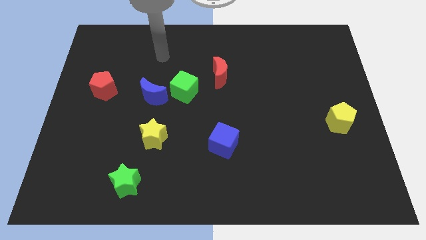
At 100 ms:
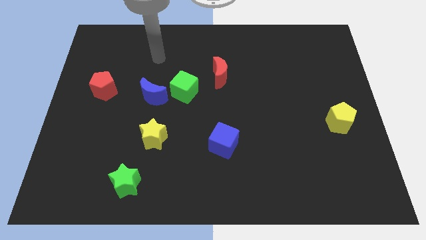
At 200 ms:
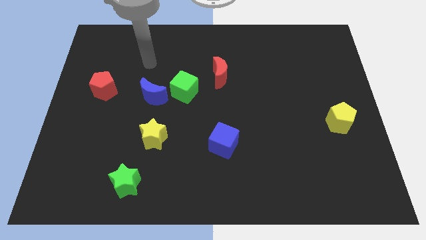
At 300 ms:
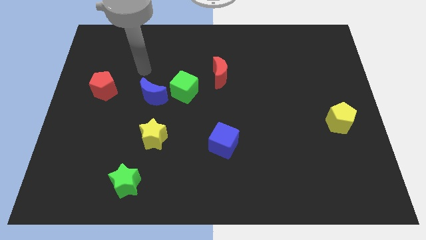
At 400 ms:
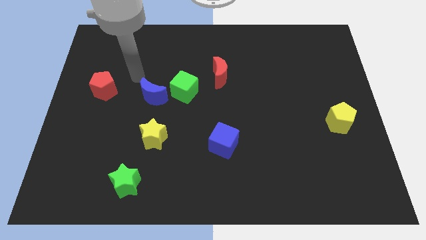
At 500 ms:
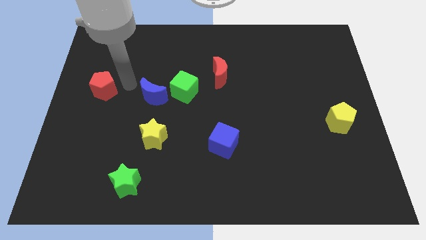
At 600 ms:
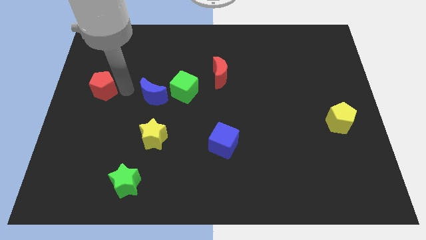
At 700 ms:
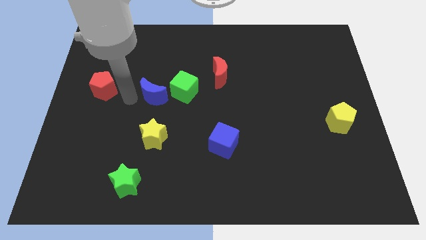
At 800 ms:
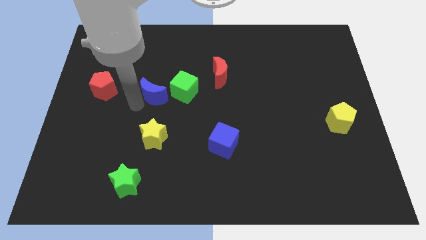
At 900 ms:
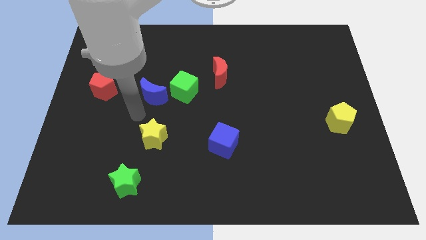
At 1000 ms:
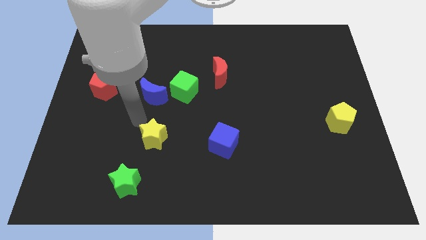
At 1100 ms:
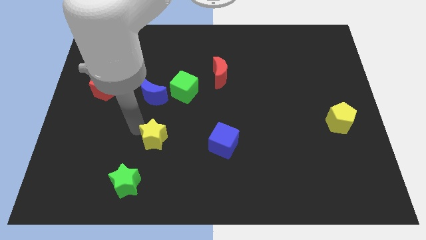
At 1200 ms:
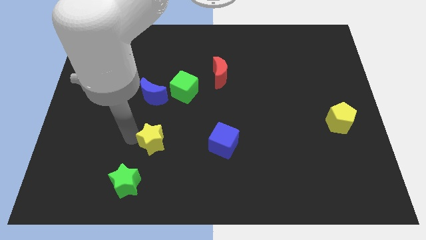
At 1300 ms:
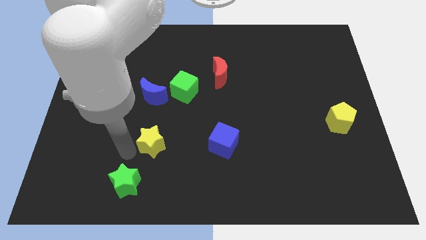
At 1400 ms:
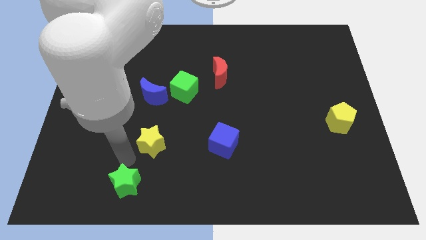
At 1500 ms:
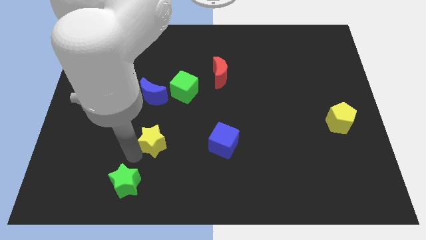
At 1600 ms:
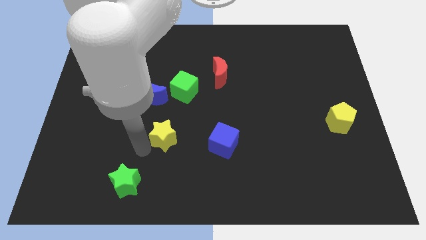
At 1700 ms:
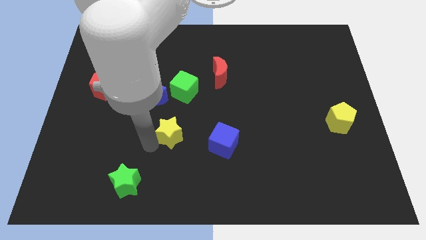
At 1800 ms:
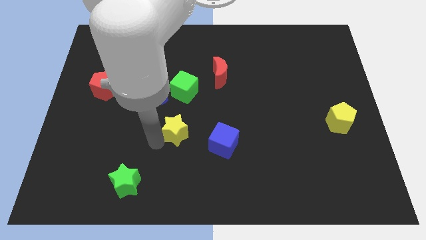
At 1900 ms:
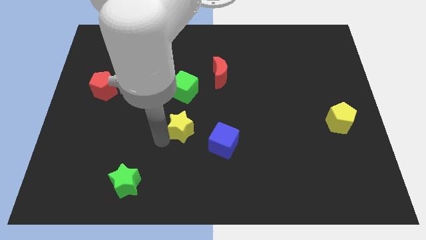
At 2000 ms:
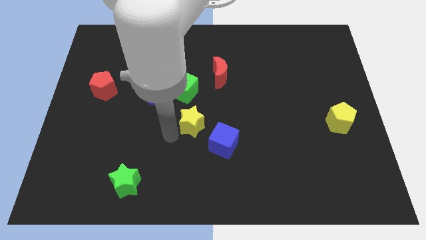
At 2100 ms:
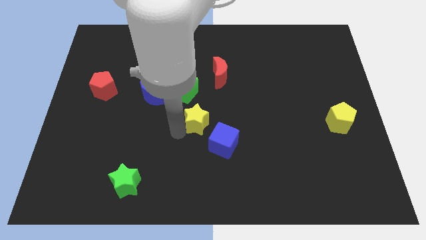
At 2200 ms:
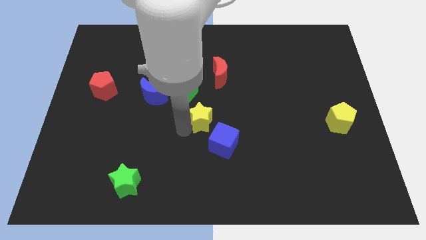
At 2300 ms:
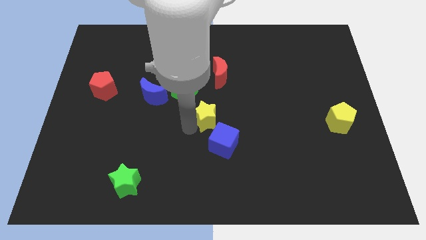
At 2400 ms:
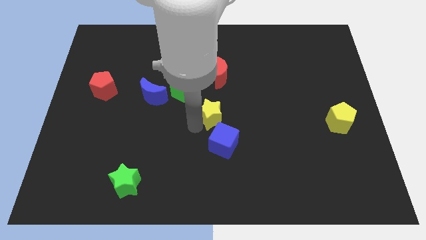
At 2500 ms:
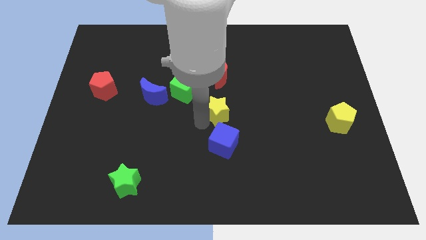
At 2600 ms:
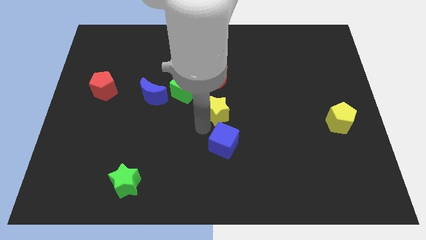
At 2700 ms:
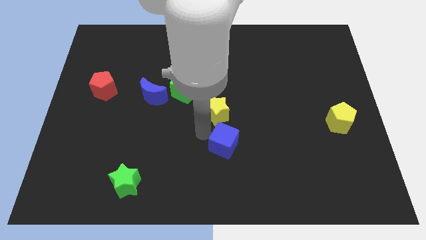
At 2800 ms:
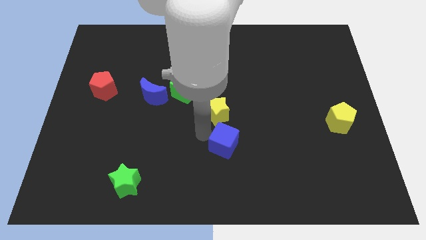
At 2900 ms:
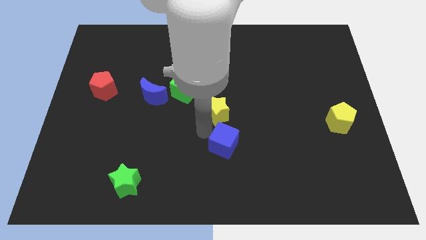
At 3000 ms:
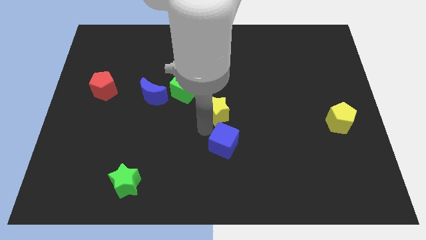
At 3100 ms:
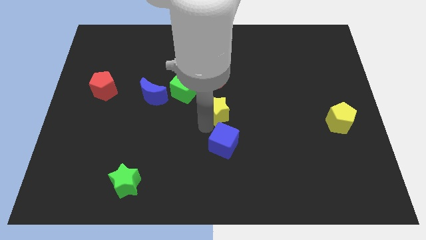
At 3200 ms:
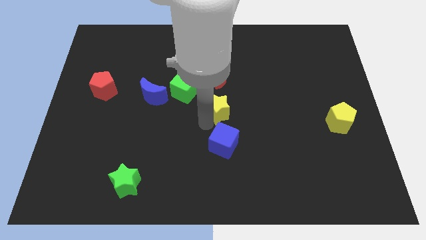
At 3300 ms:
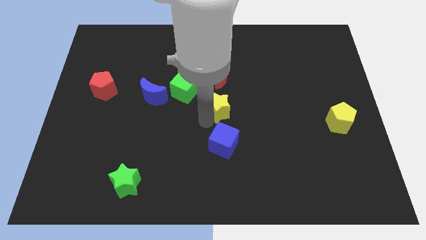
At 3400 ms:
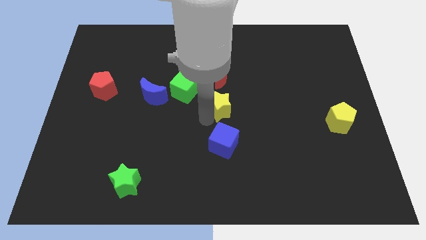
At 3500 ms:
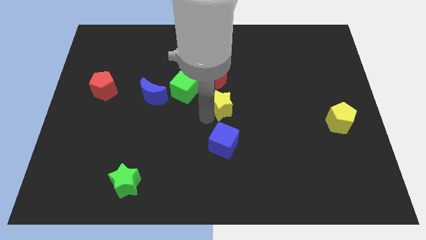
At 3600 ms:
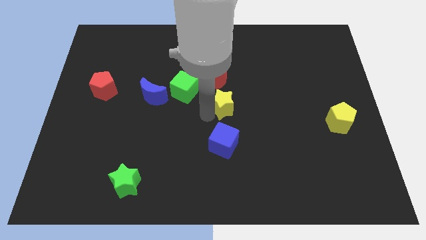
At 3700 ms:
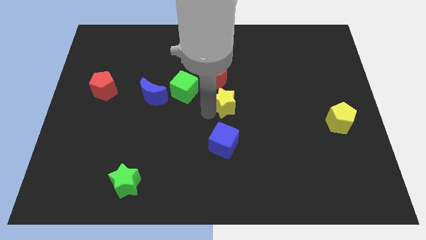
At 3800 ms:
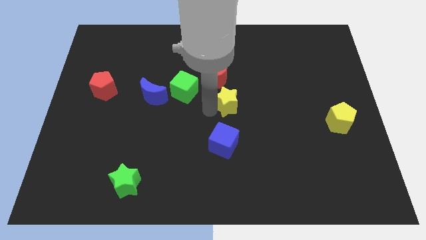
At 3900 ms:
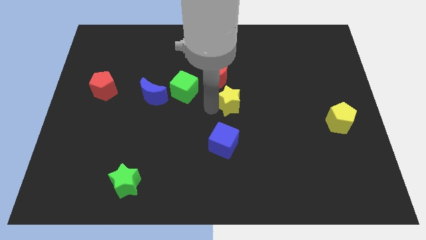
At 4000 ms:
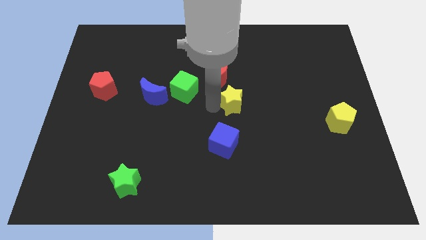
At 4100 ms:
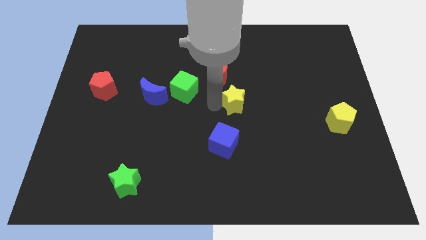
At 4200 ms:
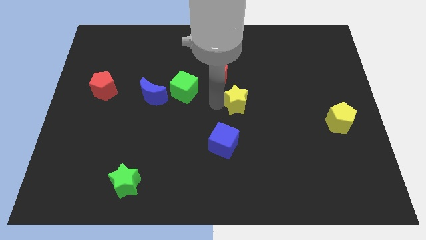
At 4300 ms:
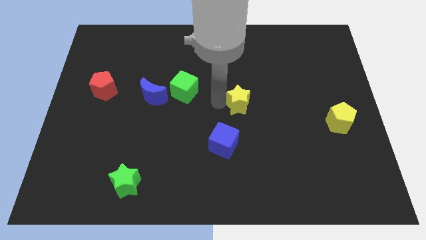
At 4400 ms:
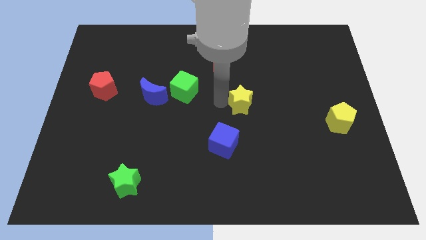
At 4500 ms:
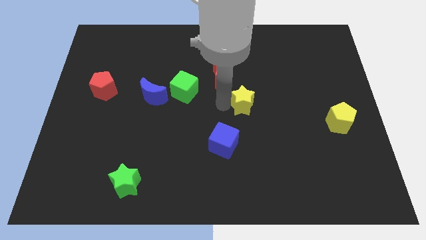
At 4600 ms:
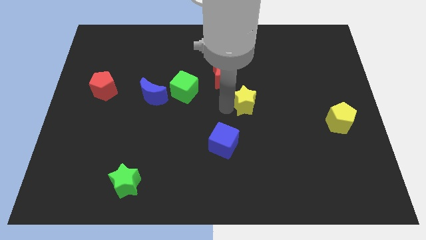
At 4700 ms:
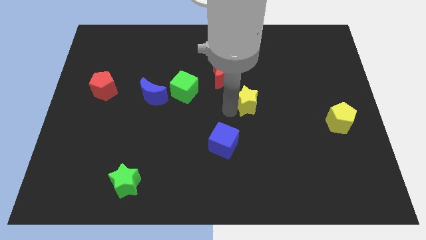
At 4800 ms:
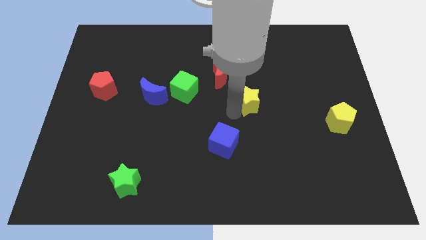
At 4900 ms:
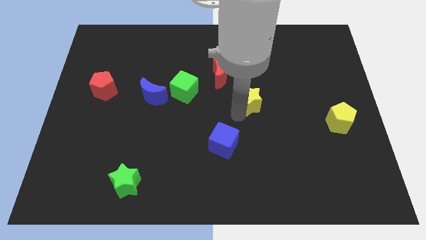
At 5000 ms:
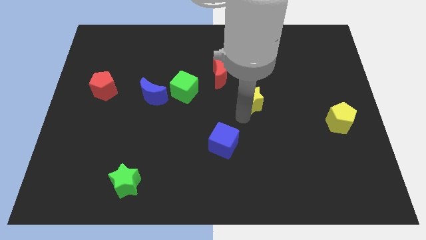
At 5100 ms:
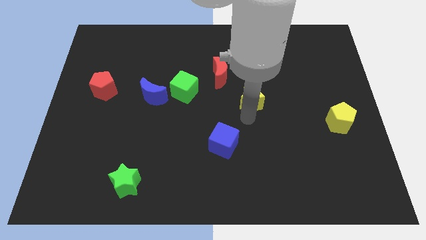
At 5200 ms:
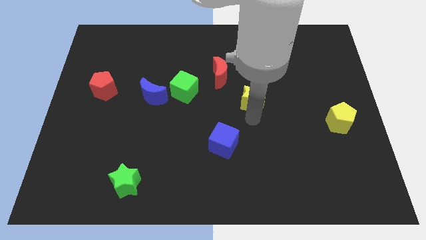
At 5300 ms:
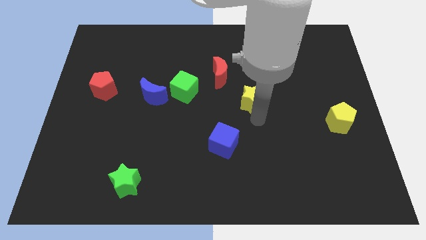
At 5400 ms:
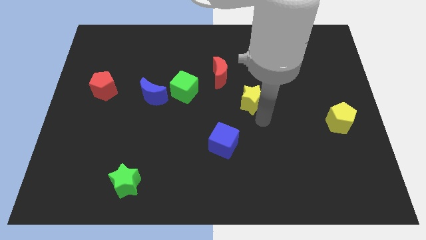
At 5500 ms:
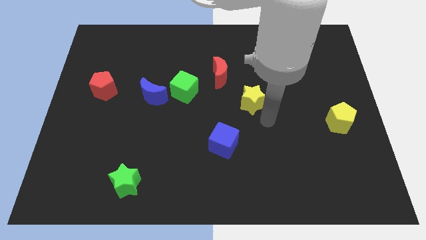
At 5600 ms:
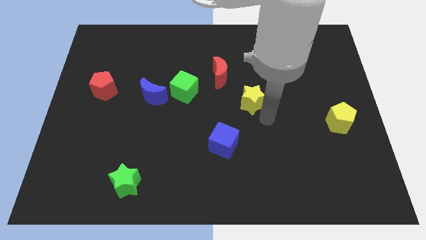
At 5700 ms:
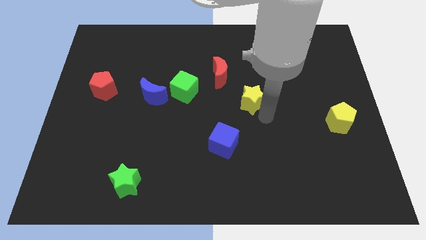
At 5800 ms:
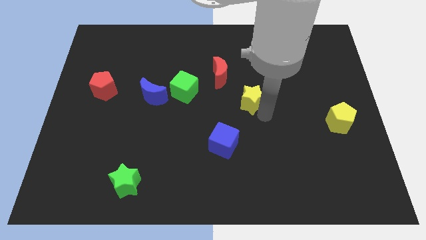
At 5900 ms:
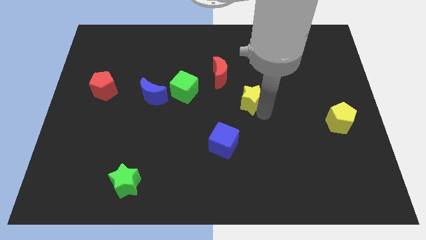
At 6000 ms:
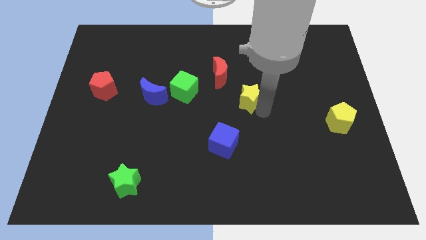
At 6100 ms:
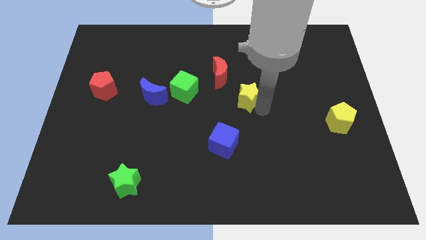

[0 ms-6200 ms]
slide the yellow star diagonally up and to the right

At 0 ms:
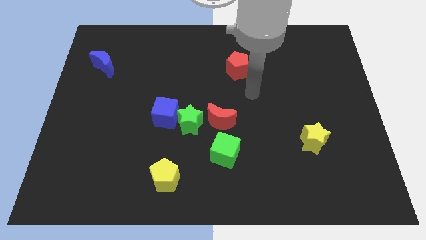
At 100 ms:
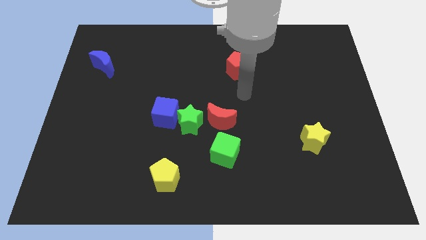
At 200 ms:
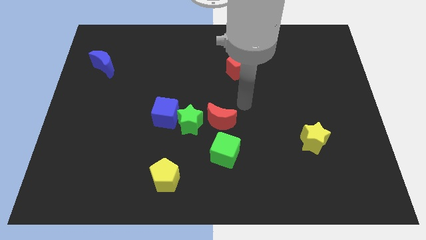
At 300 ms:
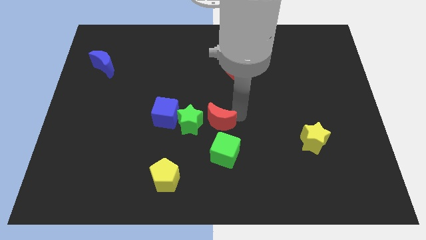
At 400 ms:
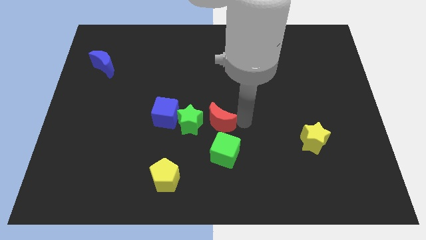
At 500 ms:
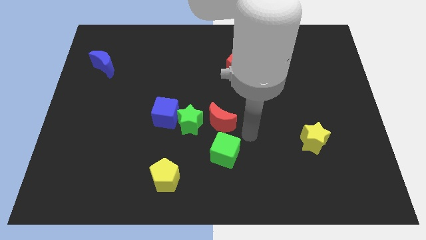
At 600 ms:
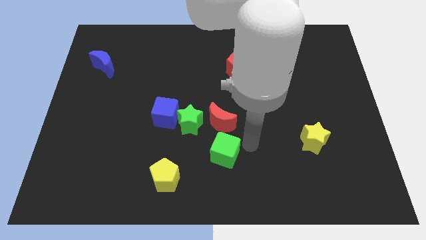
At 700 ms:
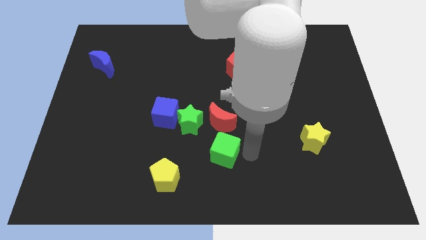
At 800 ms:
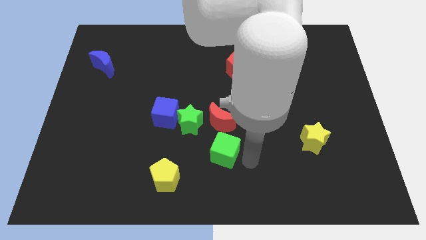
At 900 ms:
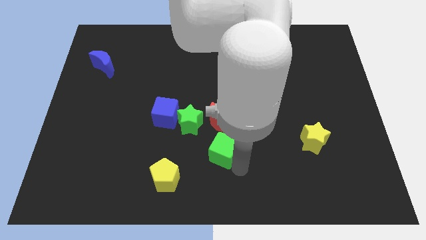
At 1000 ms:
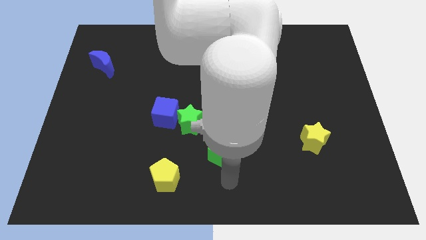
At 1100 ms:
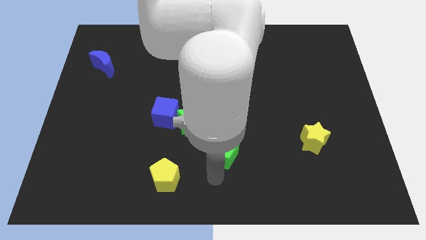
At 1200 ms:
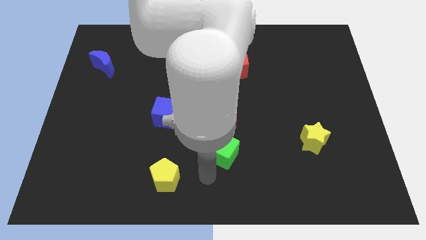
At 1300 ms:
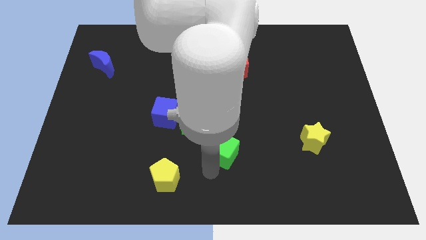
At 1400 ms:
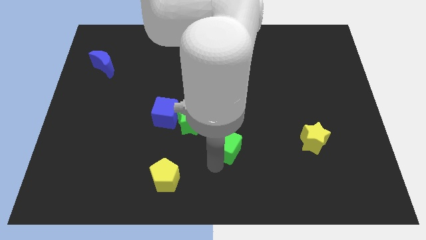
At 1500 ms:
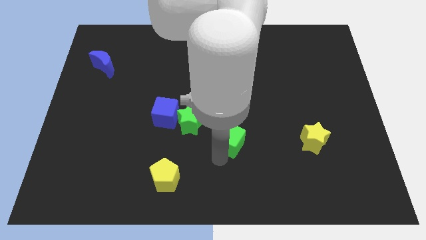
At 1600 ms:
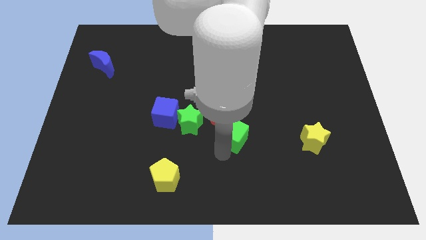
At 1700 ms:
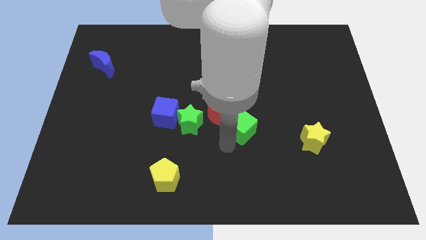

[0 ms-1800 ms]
slightly move the green cube up and then to the right

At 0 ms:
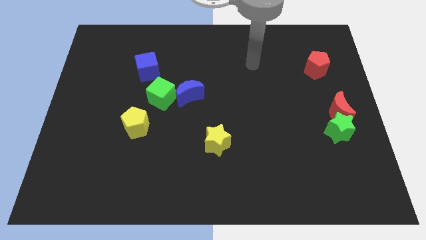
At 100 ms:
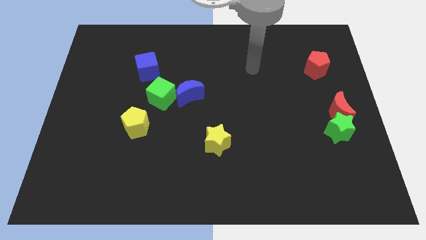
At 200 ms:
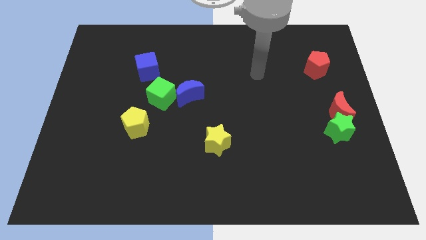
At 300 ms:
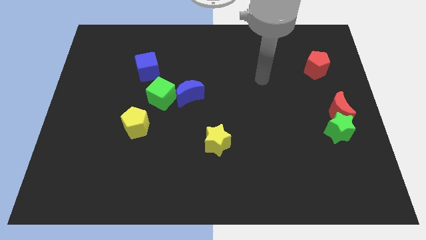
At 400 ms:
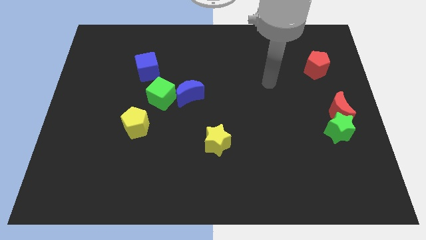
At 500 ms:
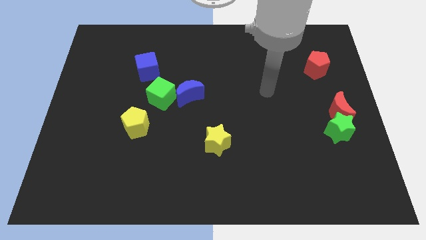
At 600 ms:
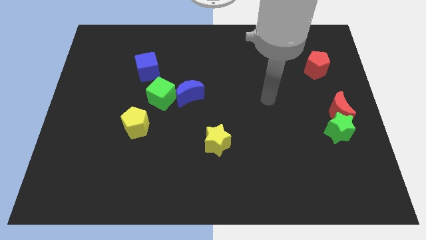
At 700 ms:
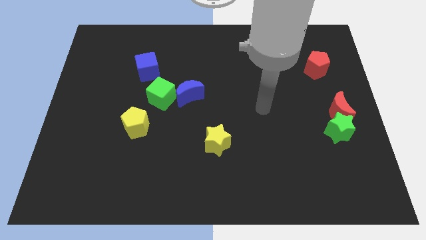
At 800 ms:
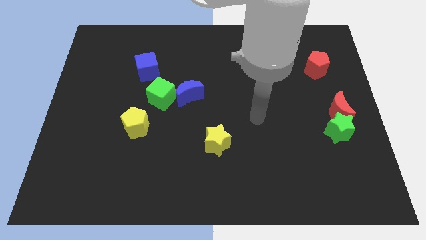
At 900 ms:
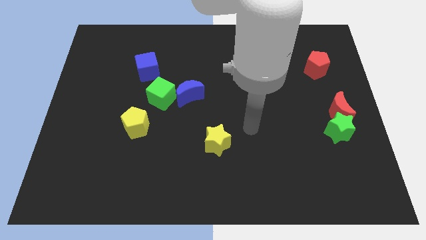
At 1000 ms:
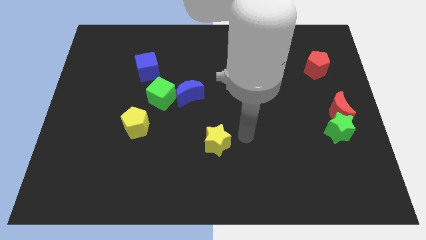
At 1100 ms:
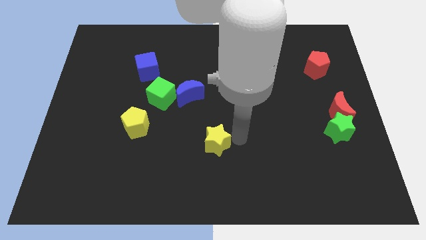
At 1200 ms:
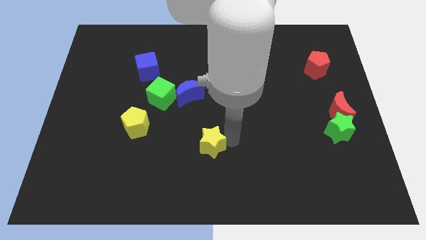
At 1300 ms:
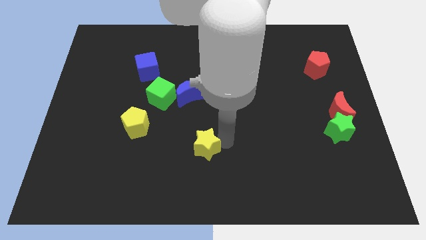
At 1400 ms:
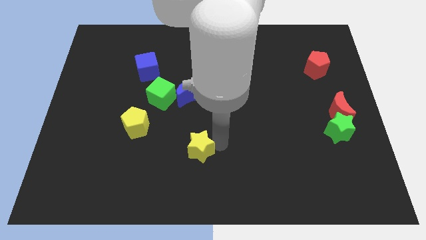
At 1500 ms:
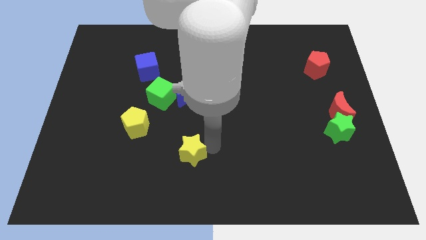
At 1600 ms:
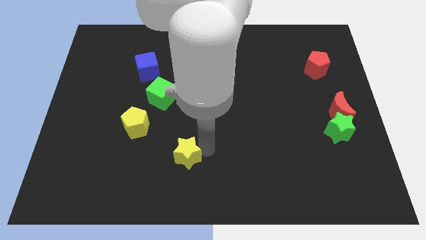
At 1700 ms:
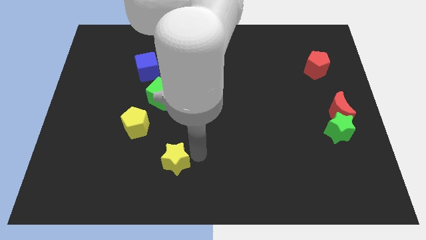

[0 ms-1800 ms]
slightly slide the yellow star left
